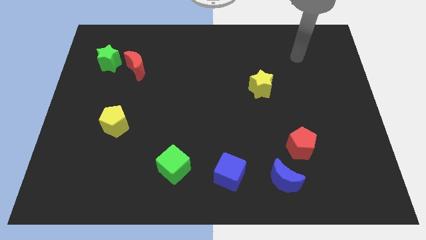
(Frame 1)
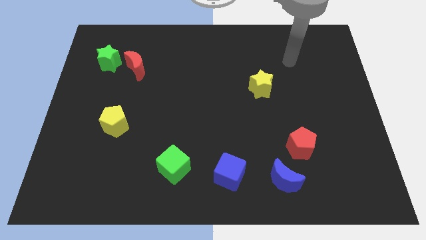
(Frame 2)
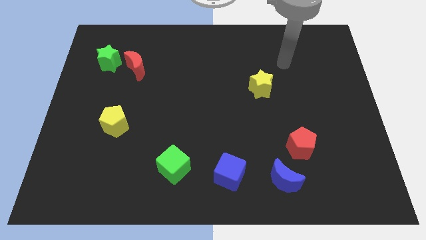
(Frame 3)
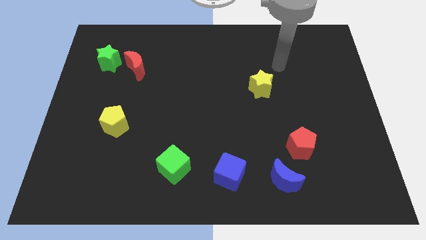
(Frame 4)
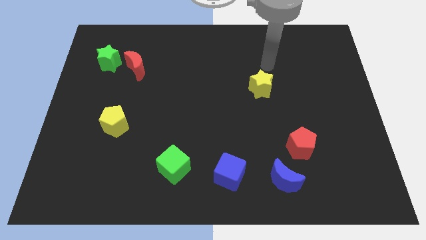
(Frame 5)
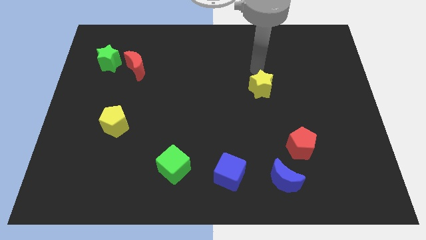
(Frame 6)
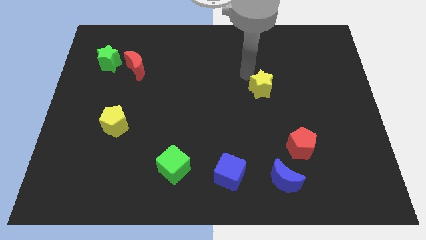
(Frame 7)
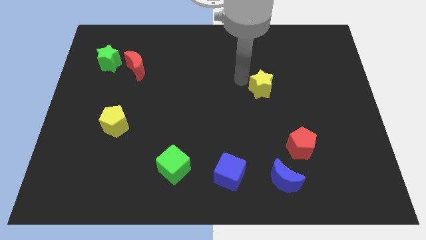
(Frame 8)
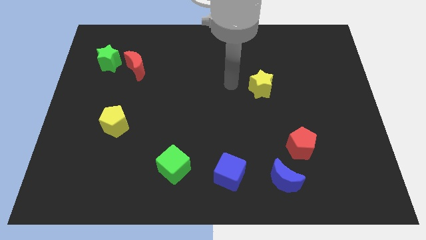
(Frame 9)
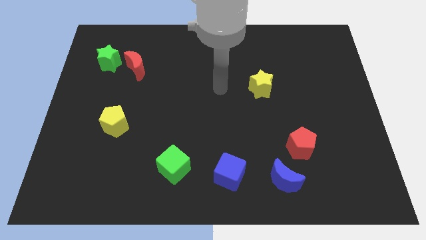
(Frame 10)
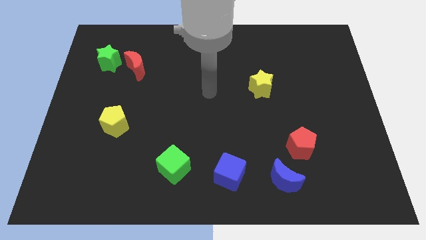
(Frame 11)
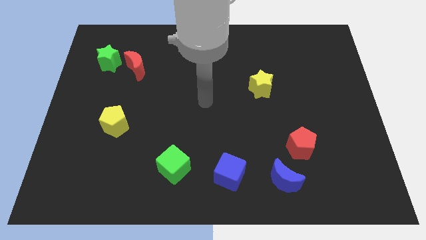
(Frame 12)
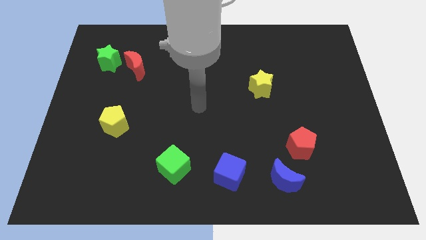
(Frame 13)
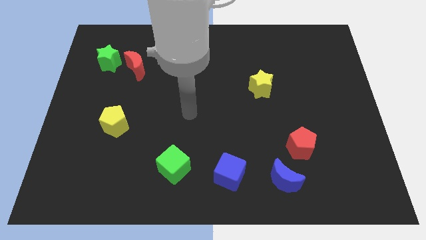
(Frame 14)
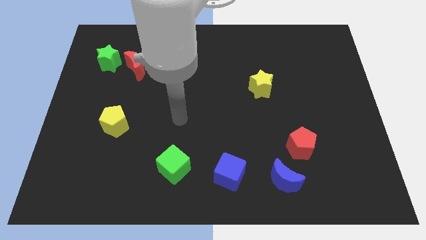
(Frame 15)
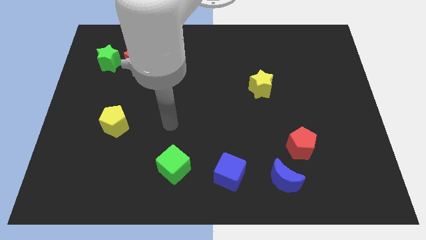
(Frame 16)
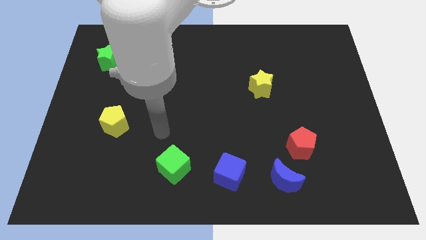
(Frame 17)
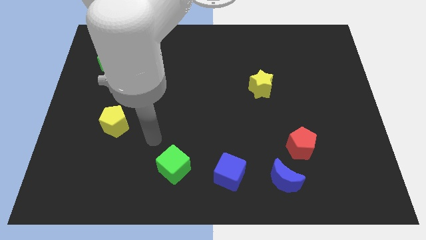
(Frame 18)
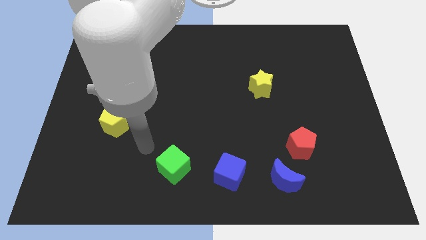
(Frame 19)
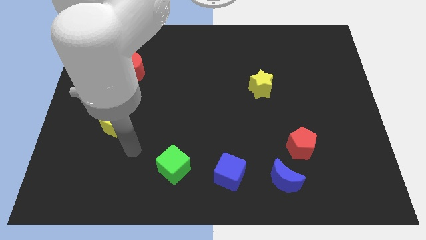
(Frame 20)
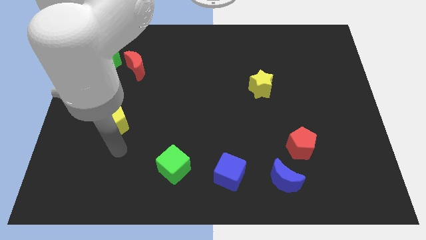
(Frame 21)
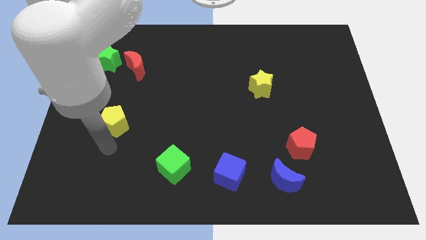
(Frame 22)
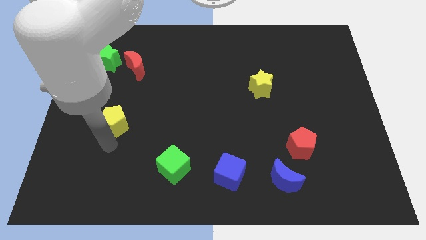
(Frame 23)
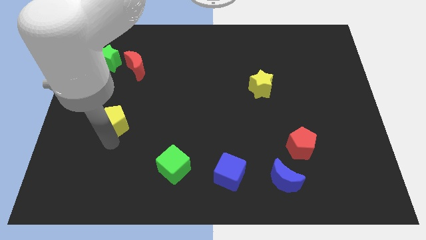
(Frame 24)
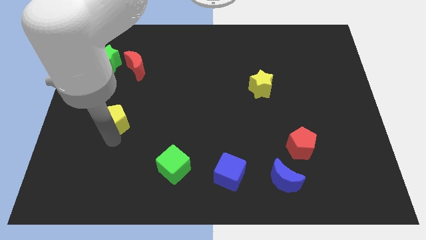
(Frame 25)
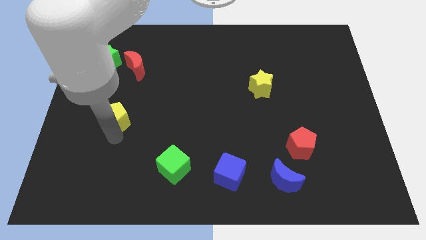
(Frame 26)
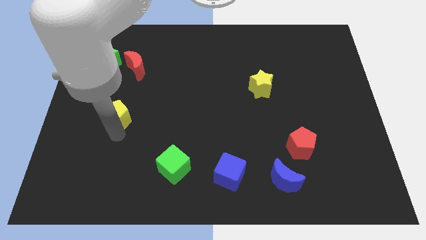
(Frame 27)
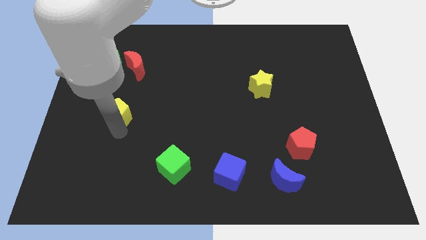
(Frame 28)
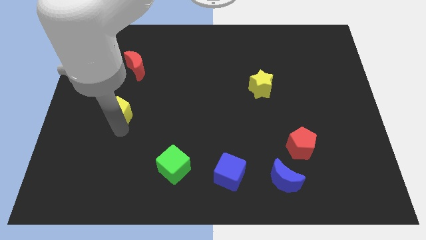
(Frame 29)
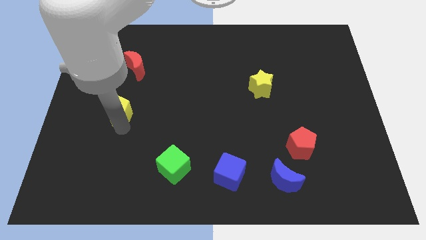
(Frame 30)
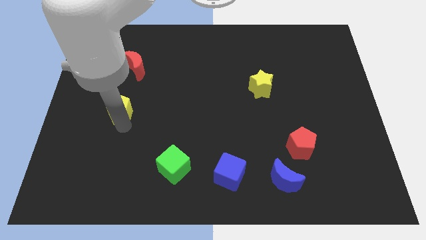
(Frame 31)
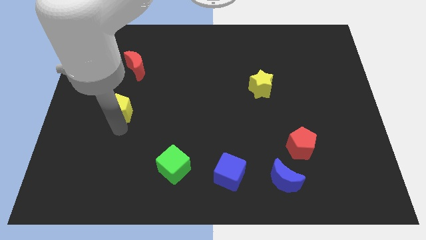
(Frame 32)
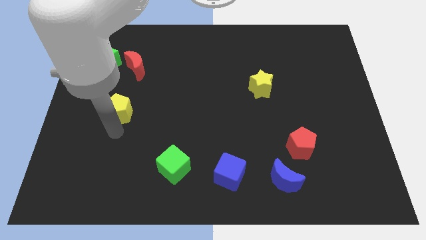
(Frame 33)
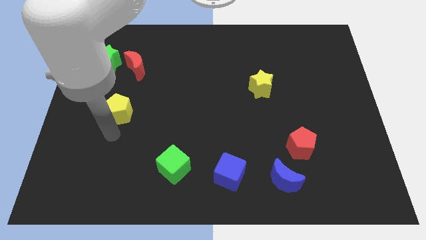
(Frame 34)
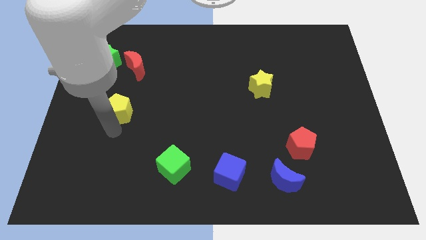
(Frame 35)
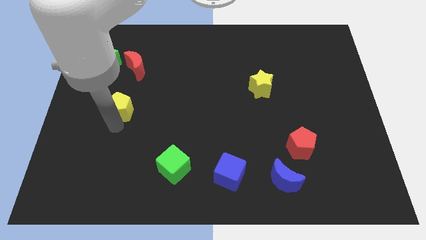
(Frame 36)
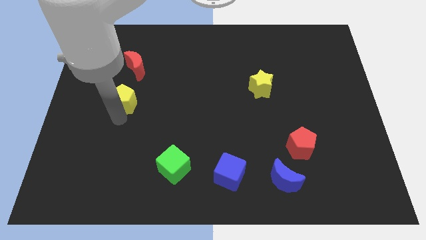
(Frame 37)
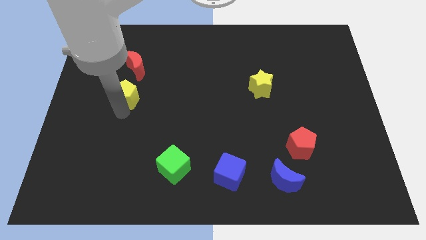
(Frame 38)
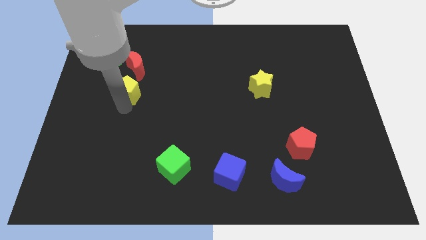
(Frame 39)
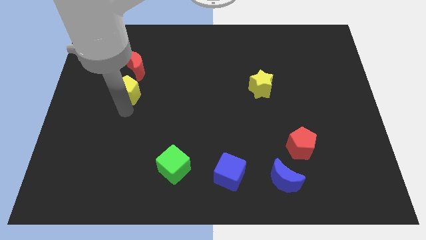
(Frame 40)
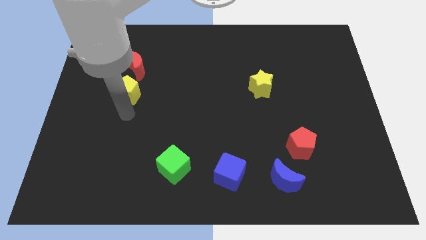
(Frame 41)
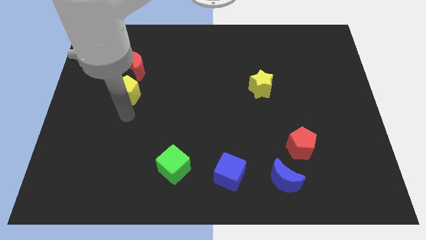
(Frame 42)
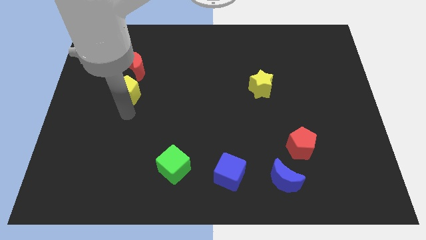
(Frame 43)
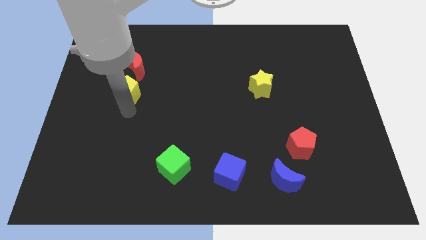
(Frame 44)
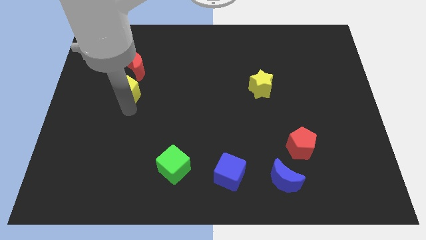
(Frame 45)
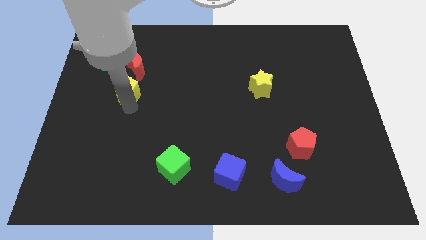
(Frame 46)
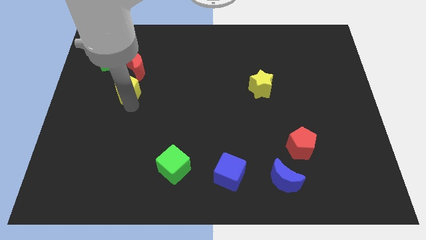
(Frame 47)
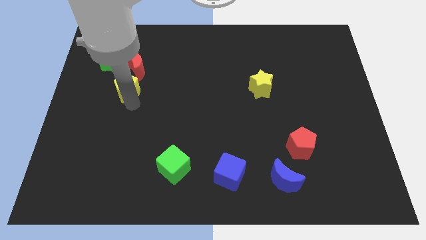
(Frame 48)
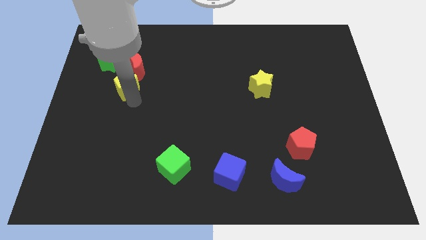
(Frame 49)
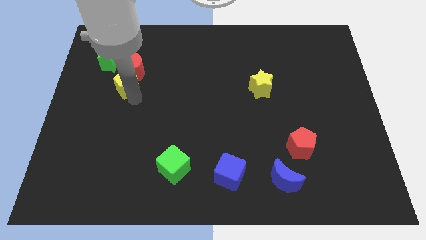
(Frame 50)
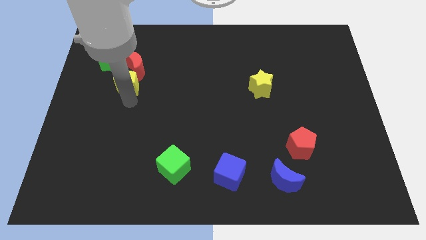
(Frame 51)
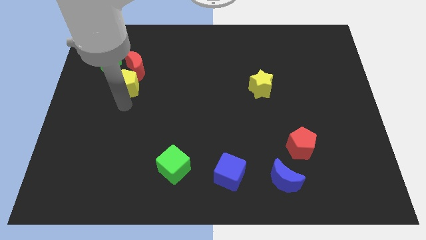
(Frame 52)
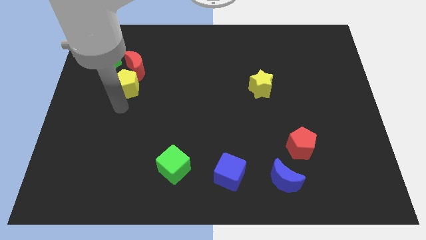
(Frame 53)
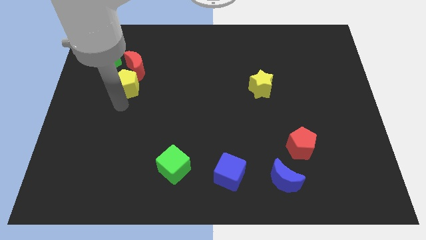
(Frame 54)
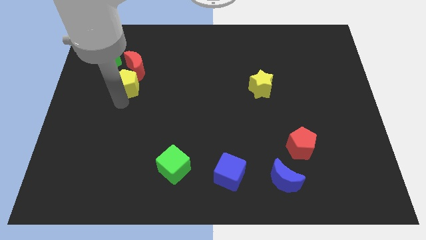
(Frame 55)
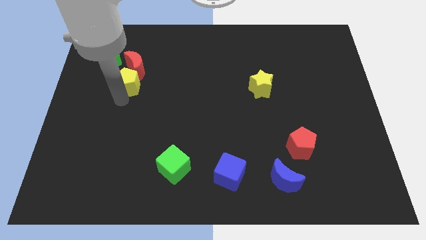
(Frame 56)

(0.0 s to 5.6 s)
put the yellow pentagon next to the red moon

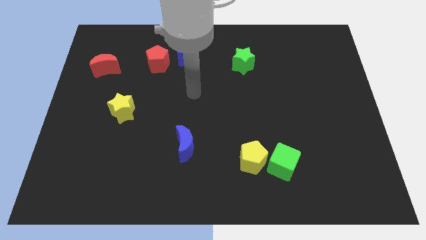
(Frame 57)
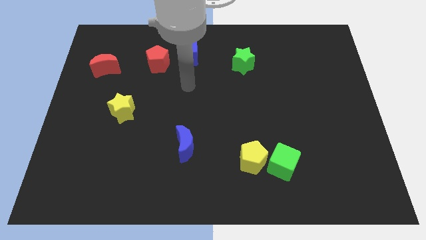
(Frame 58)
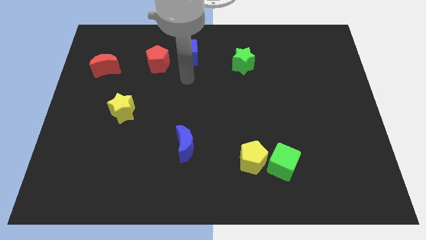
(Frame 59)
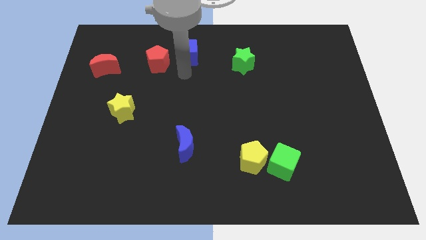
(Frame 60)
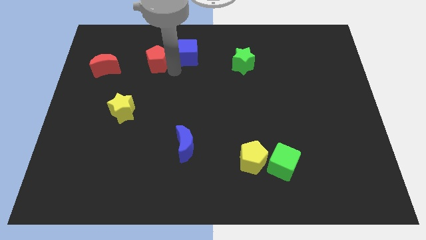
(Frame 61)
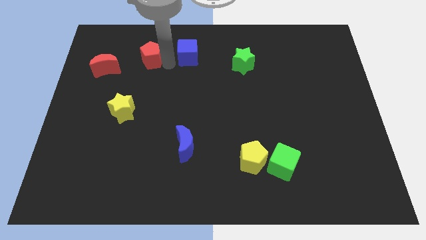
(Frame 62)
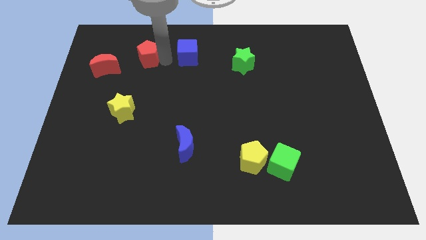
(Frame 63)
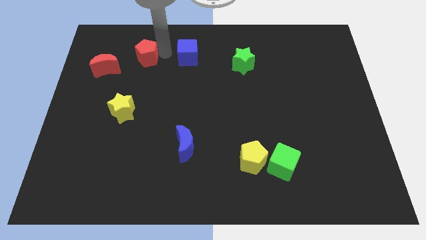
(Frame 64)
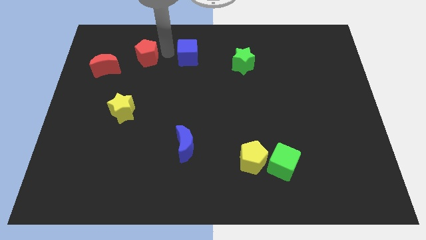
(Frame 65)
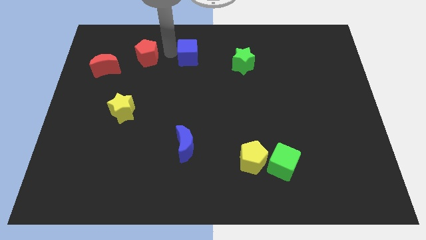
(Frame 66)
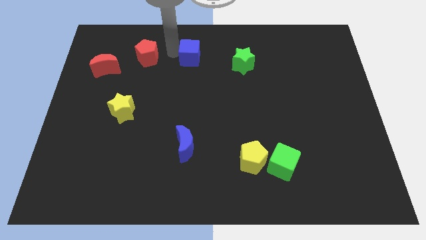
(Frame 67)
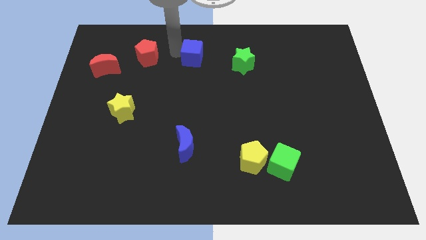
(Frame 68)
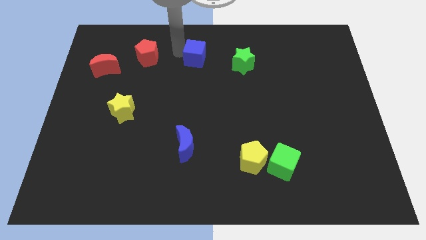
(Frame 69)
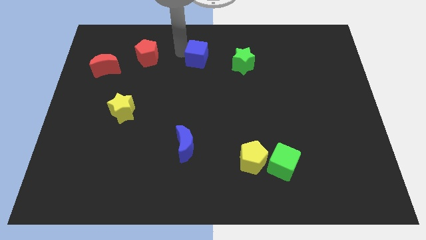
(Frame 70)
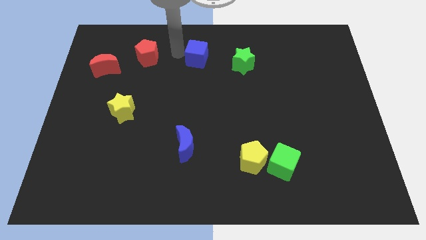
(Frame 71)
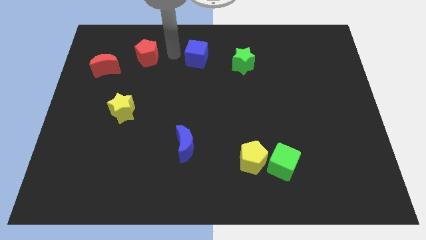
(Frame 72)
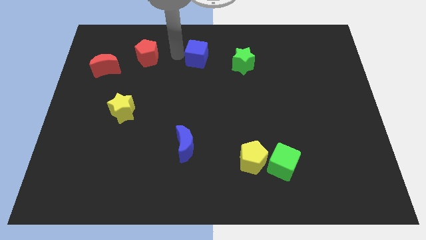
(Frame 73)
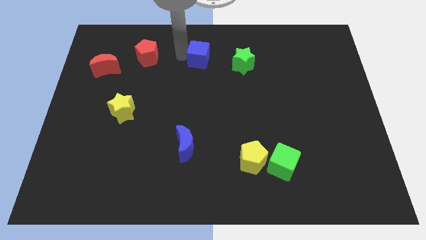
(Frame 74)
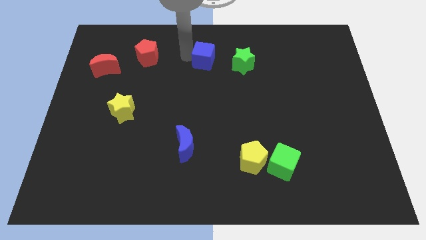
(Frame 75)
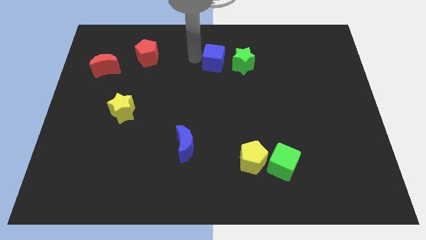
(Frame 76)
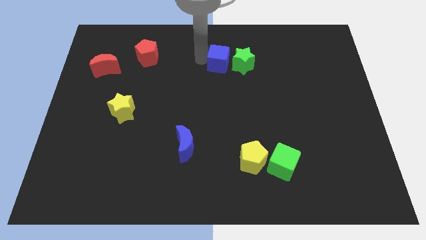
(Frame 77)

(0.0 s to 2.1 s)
move the blue cube towards the green star
